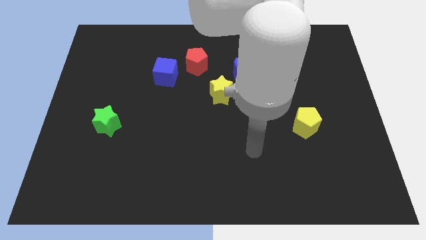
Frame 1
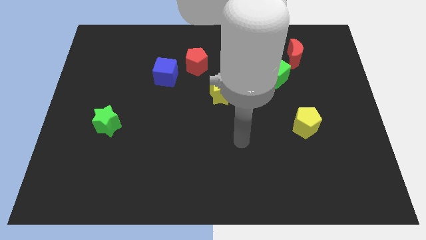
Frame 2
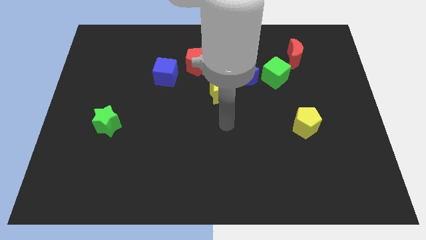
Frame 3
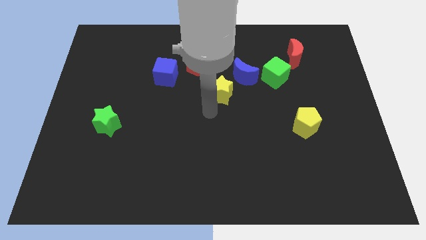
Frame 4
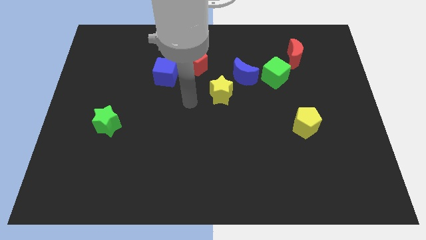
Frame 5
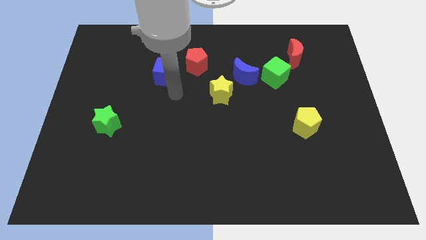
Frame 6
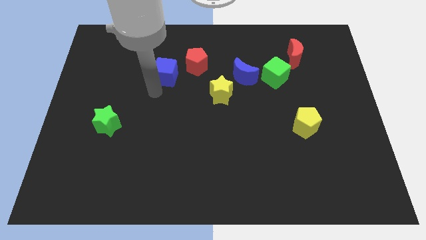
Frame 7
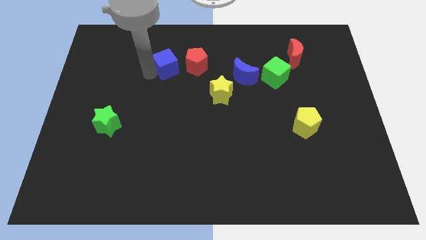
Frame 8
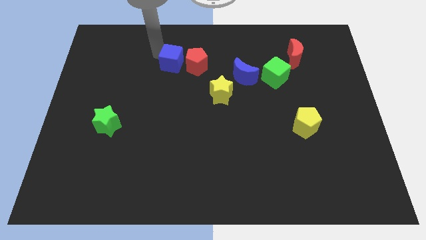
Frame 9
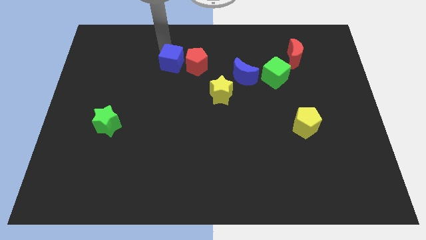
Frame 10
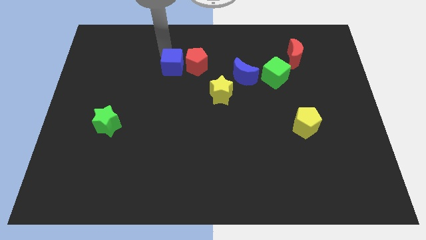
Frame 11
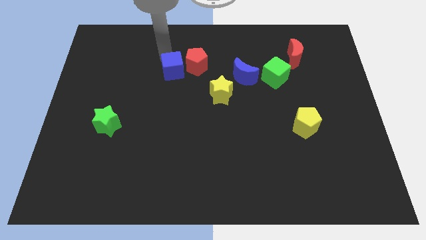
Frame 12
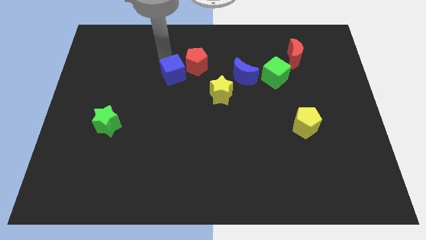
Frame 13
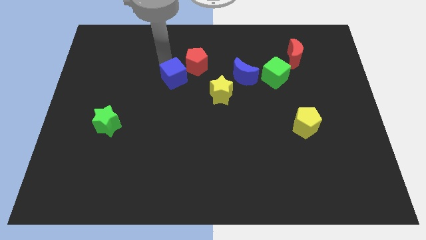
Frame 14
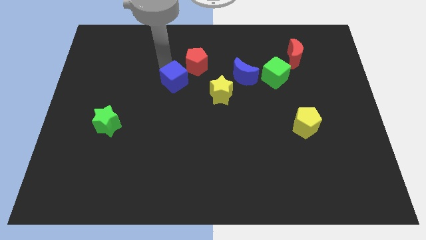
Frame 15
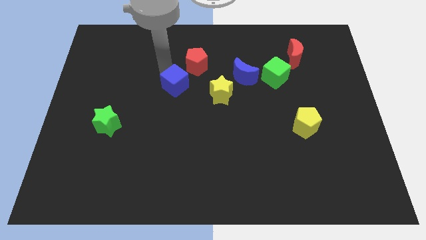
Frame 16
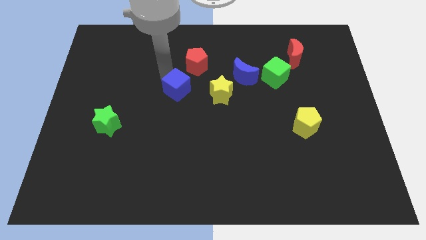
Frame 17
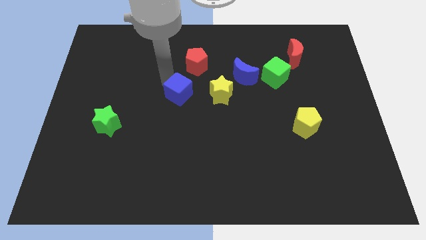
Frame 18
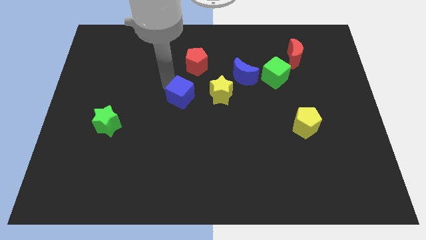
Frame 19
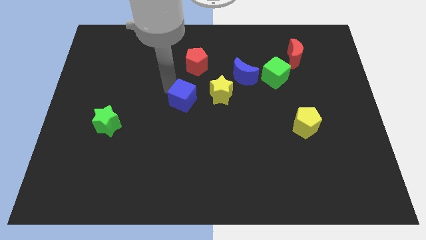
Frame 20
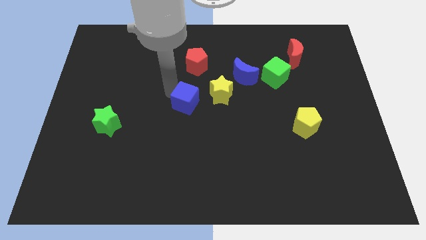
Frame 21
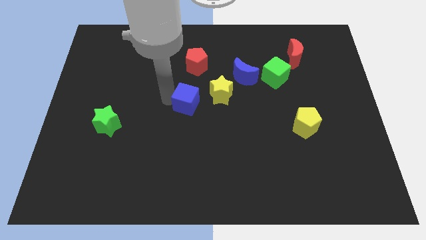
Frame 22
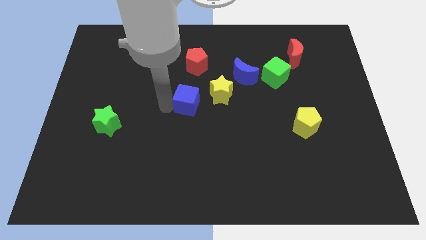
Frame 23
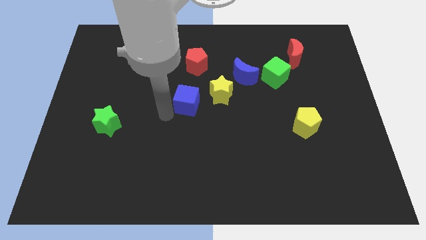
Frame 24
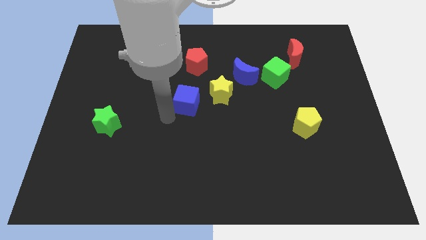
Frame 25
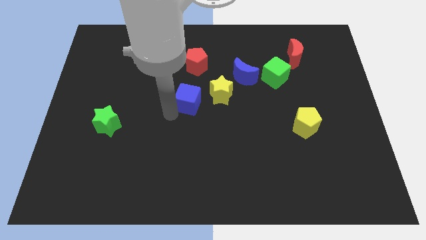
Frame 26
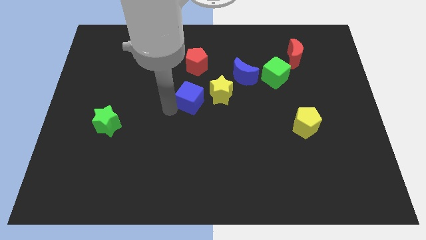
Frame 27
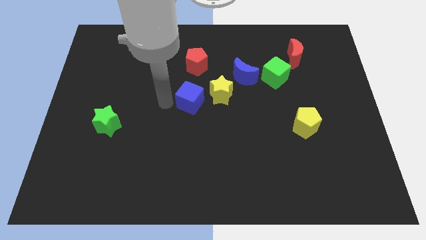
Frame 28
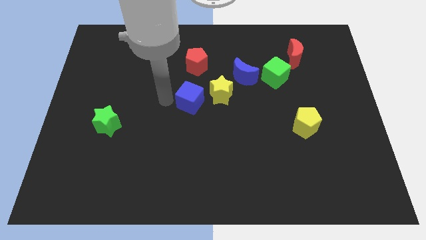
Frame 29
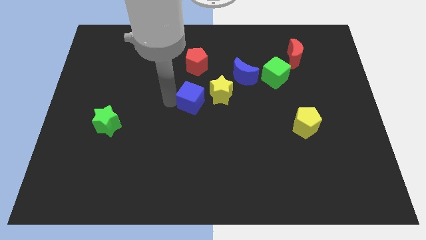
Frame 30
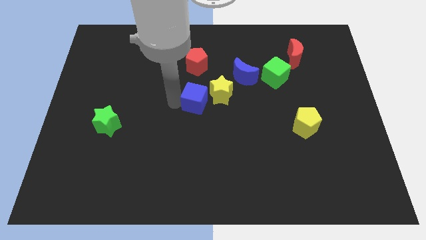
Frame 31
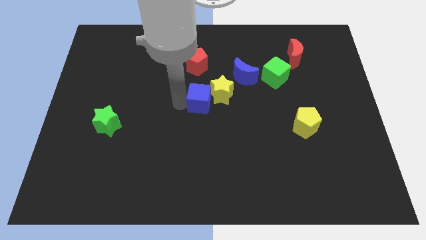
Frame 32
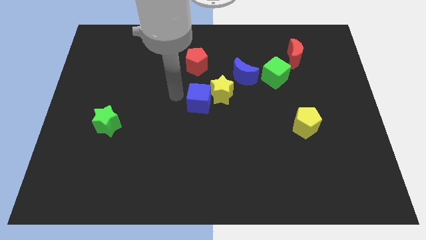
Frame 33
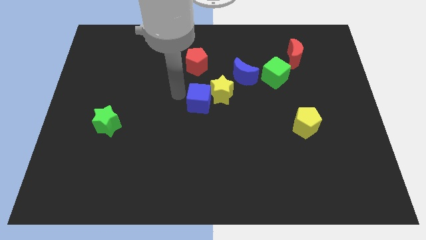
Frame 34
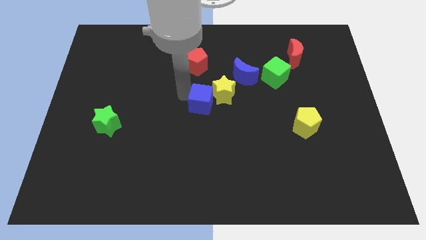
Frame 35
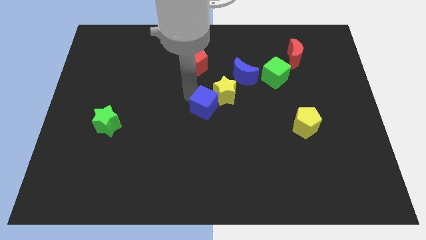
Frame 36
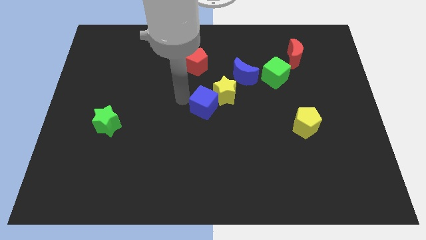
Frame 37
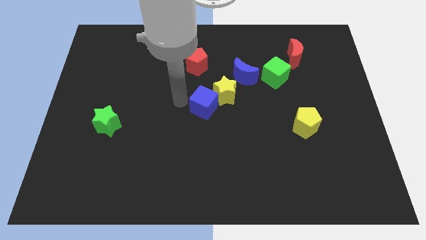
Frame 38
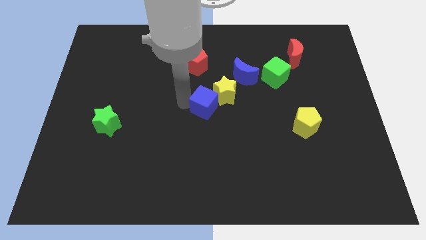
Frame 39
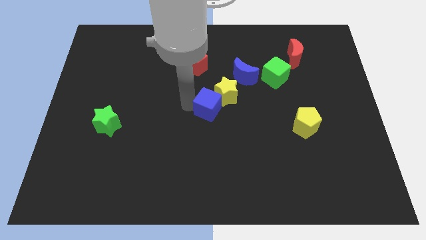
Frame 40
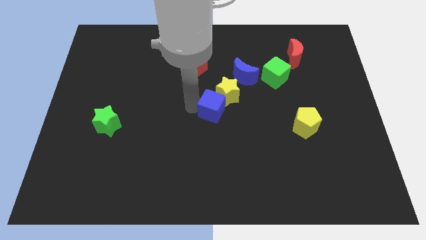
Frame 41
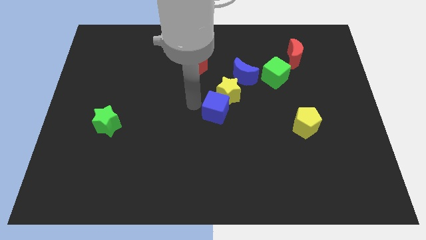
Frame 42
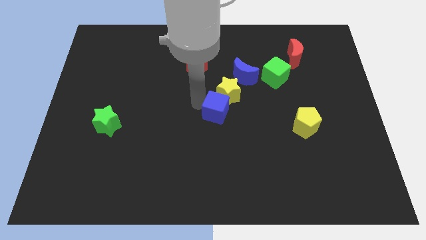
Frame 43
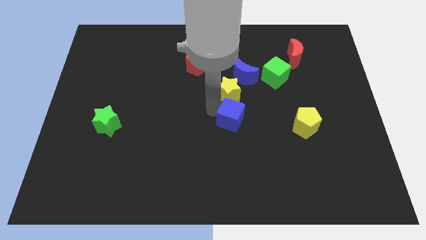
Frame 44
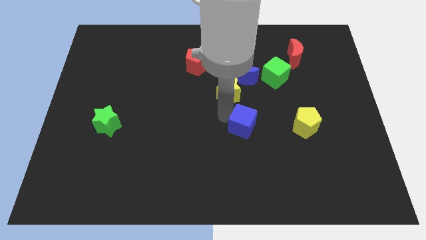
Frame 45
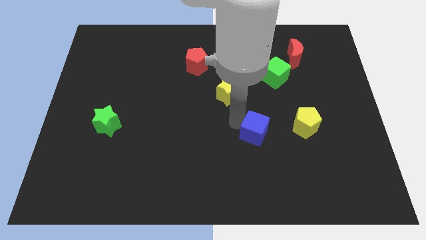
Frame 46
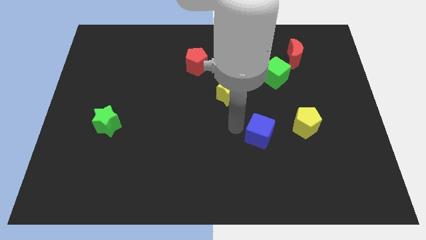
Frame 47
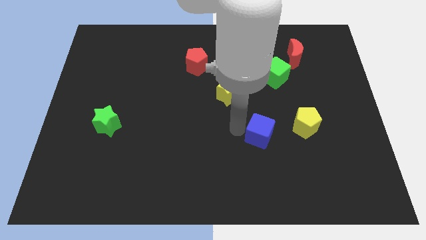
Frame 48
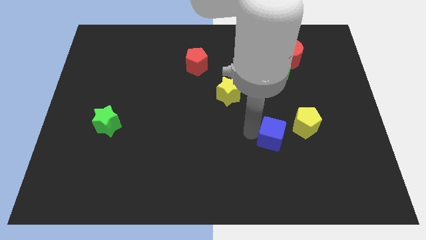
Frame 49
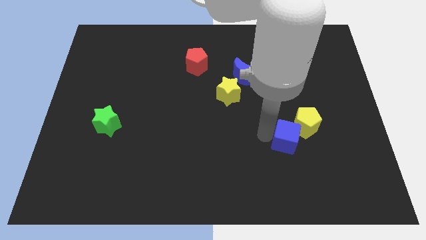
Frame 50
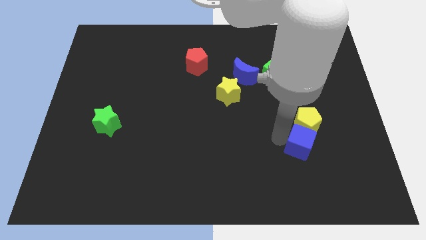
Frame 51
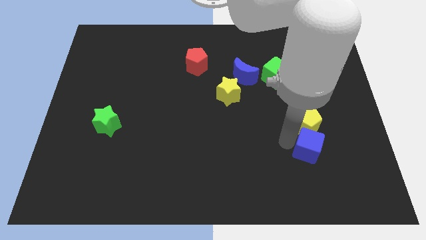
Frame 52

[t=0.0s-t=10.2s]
put the blue cube diagonally down and to the right of the yellow pentagon

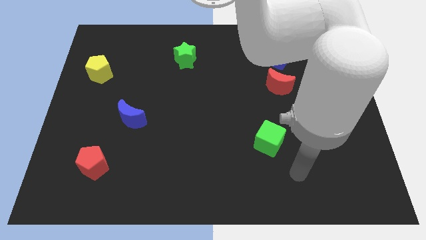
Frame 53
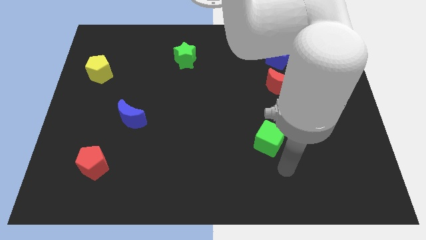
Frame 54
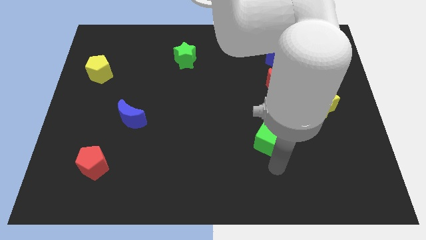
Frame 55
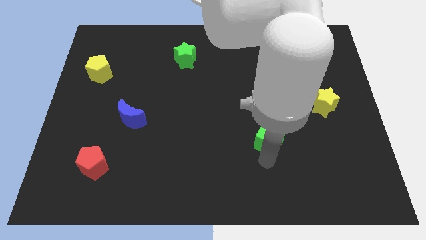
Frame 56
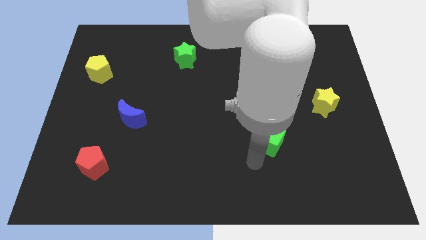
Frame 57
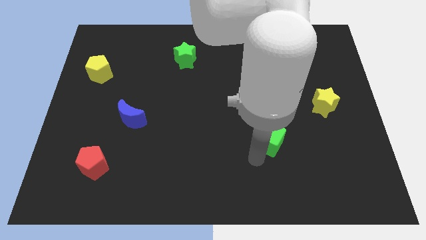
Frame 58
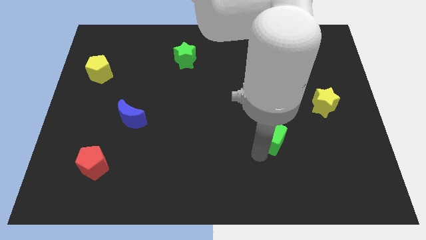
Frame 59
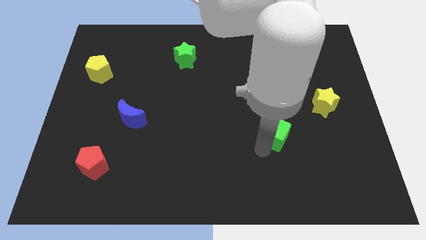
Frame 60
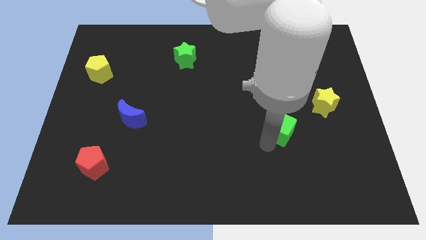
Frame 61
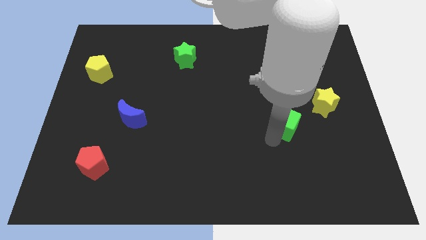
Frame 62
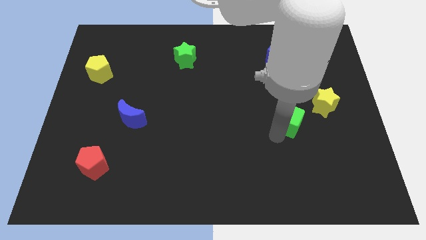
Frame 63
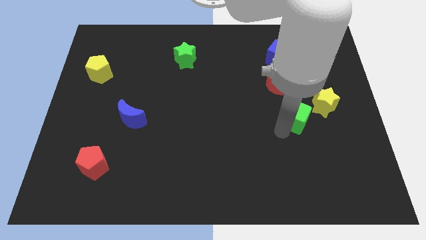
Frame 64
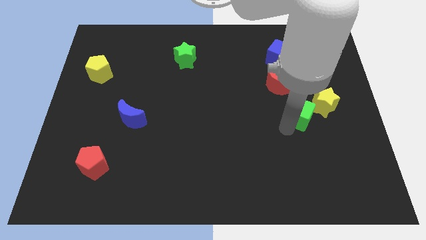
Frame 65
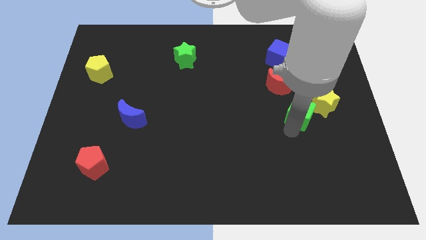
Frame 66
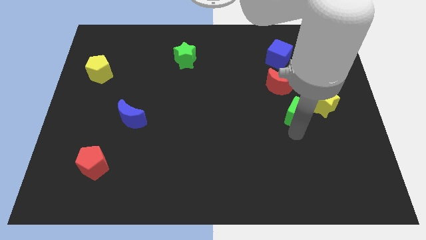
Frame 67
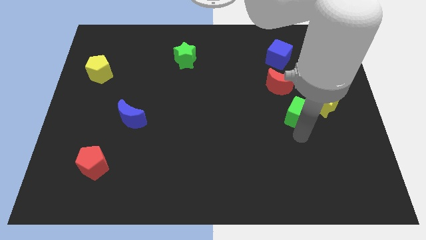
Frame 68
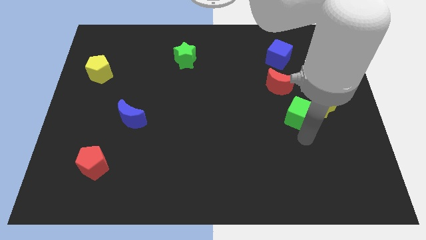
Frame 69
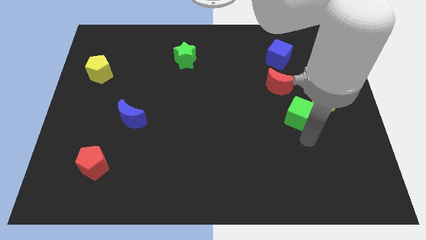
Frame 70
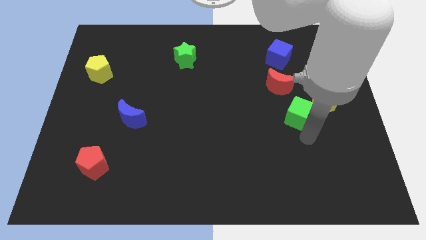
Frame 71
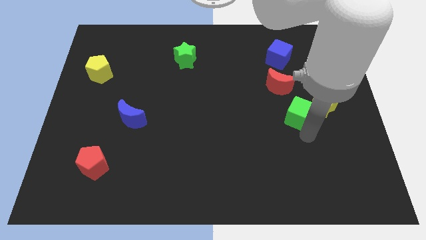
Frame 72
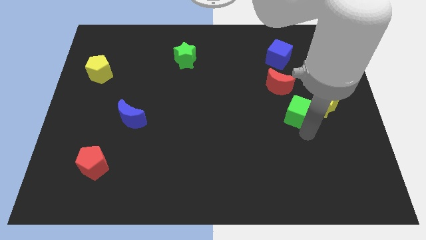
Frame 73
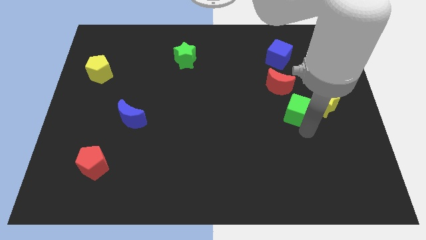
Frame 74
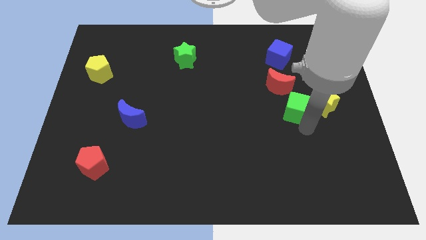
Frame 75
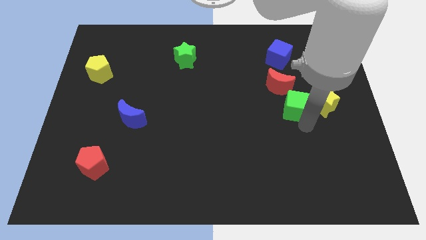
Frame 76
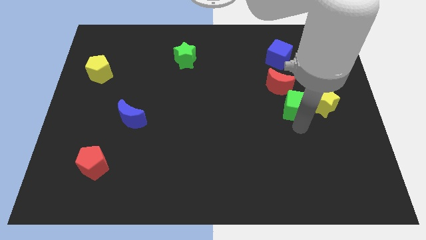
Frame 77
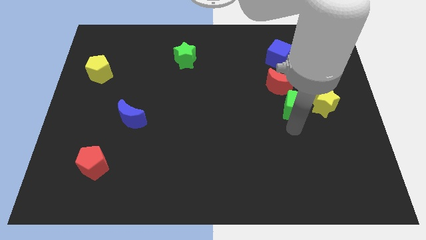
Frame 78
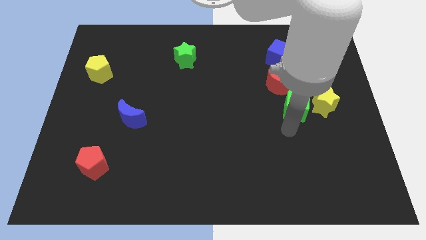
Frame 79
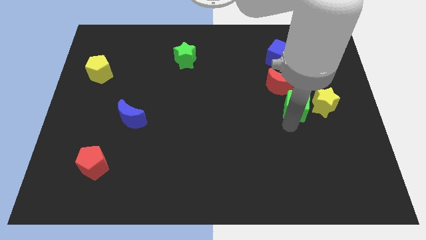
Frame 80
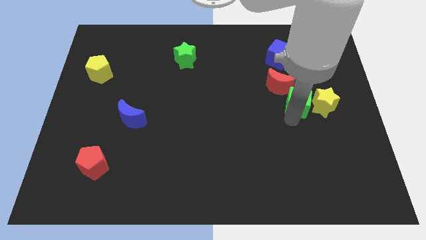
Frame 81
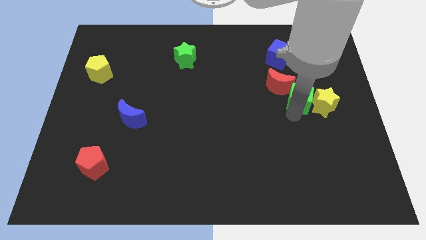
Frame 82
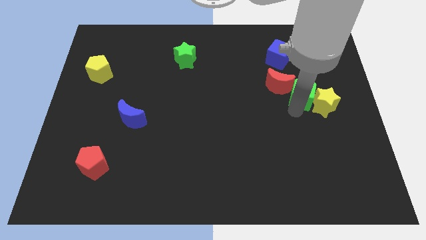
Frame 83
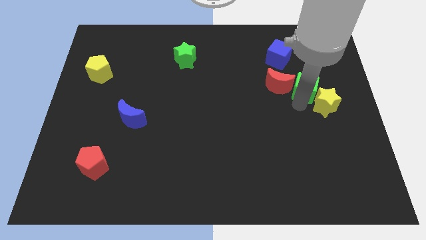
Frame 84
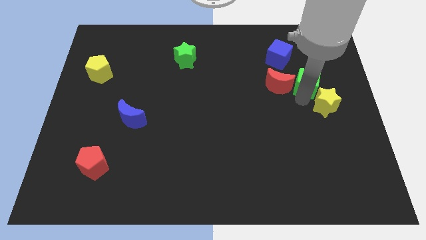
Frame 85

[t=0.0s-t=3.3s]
slide the green cube to the bottom right side of the blue cube
